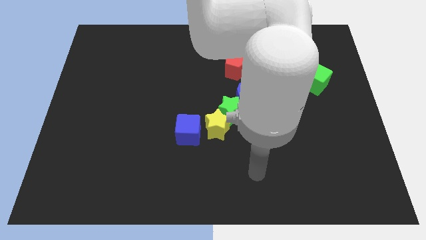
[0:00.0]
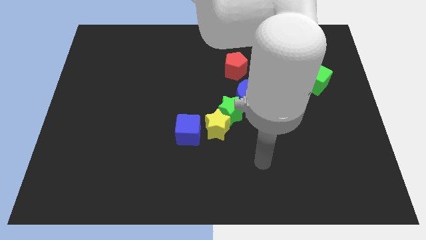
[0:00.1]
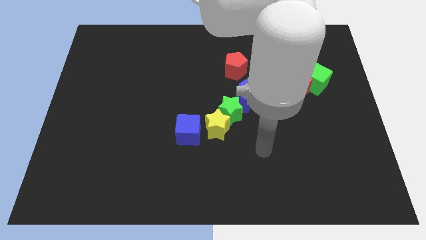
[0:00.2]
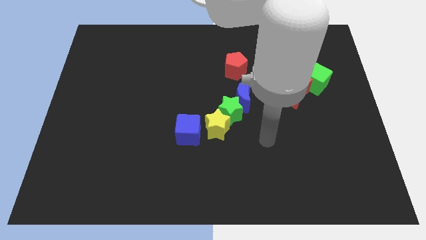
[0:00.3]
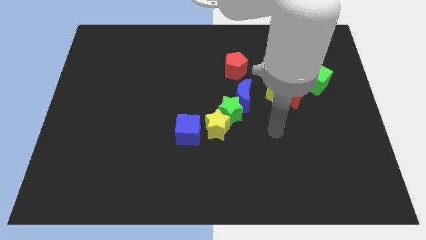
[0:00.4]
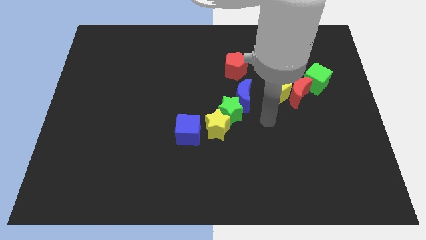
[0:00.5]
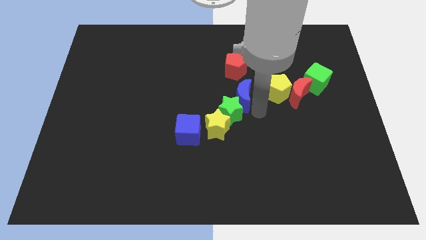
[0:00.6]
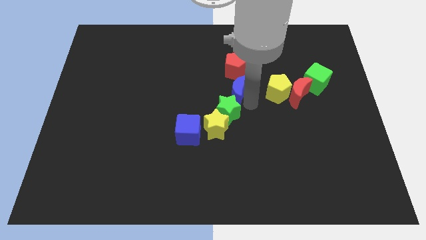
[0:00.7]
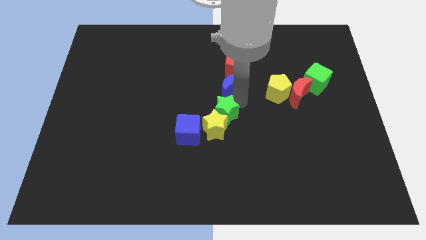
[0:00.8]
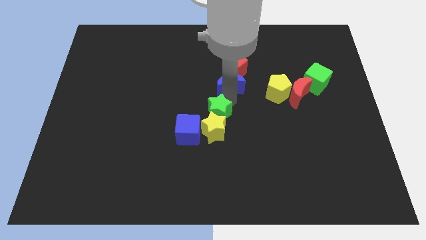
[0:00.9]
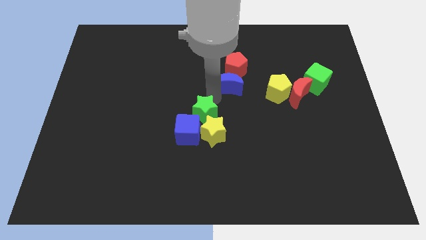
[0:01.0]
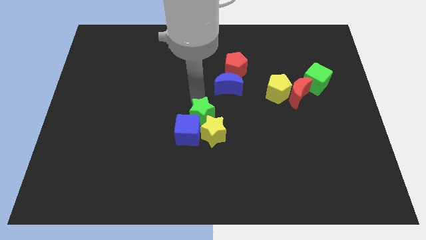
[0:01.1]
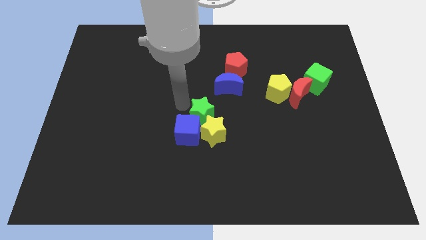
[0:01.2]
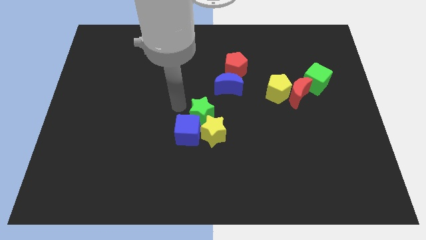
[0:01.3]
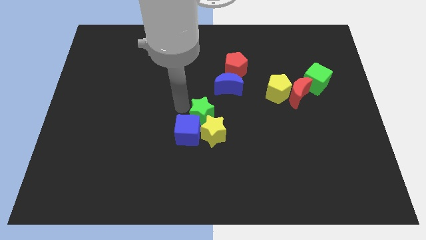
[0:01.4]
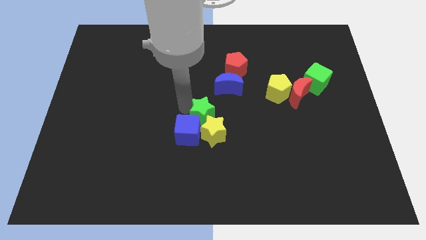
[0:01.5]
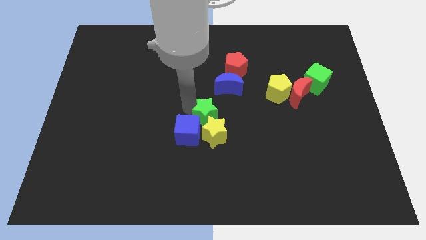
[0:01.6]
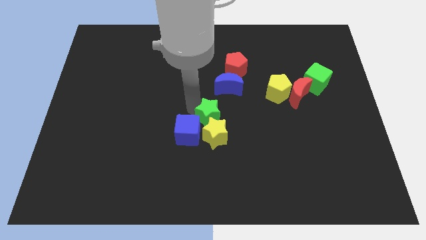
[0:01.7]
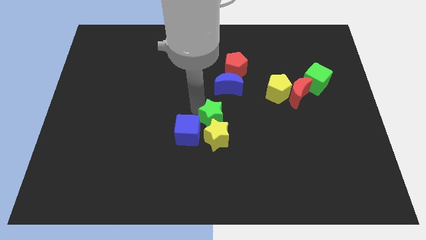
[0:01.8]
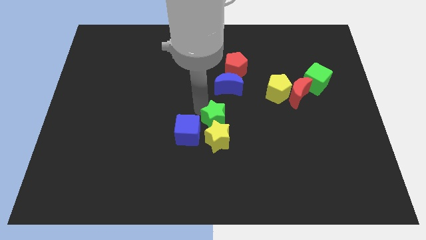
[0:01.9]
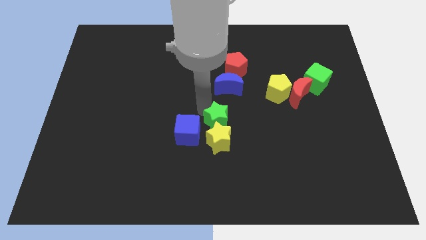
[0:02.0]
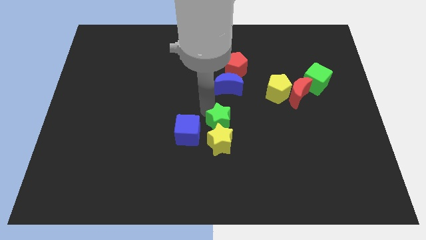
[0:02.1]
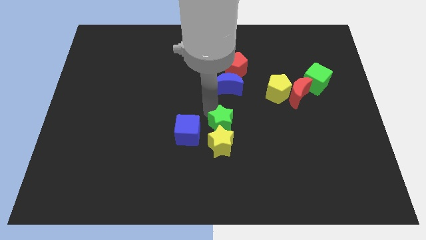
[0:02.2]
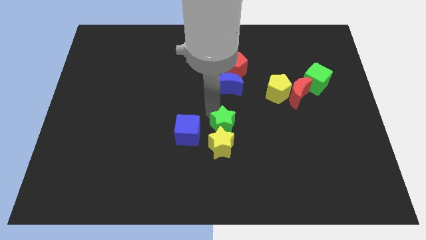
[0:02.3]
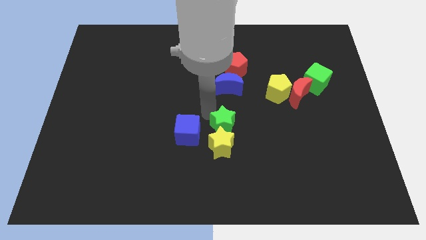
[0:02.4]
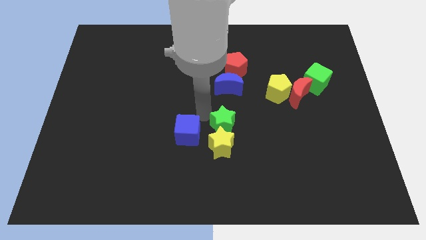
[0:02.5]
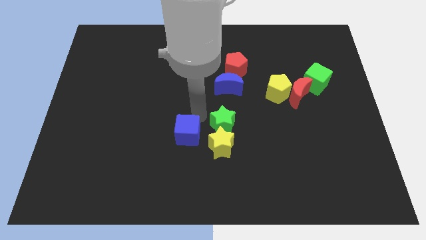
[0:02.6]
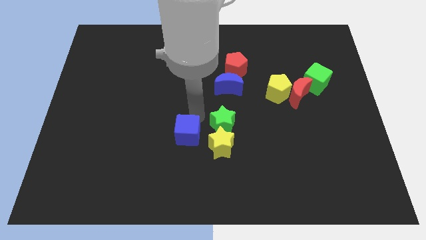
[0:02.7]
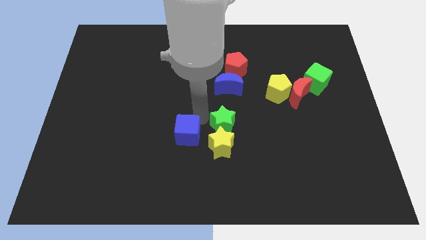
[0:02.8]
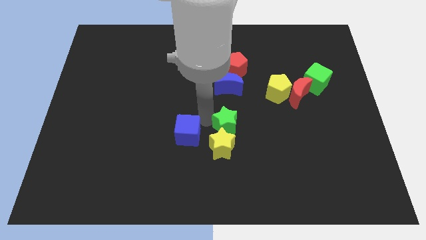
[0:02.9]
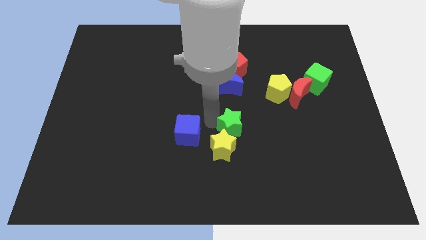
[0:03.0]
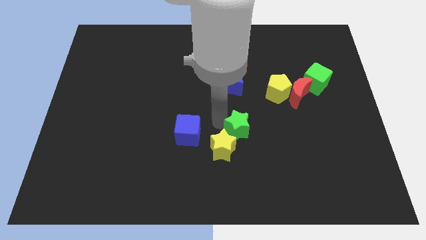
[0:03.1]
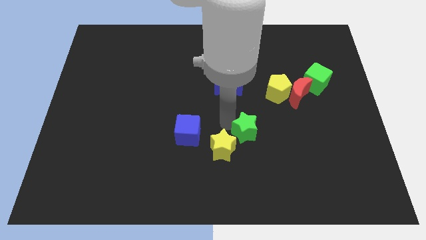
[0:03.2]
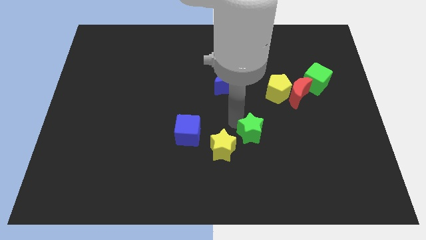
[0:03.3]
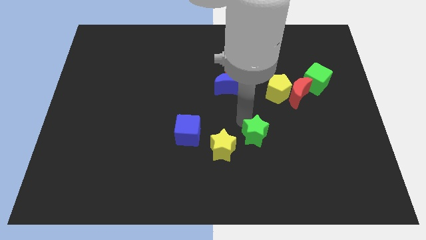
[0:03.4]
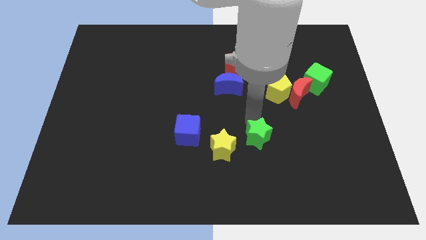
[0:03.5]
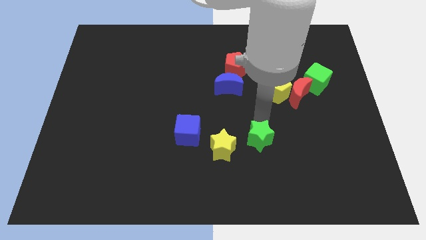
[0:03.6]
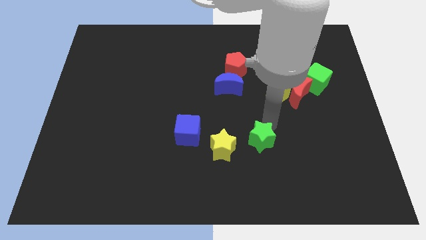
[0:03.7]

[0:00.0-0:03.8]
move the green star away from the yellow star and blue moon

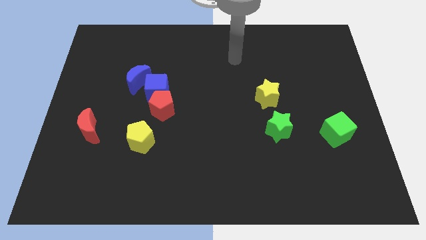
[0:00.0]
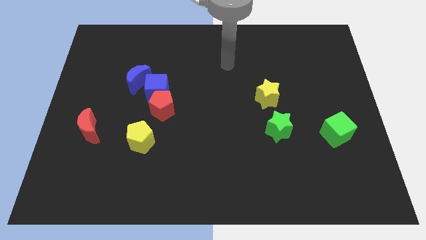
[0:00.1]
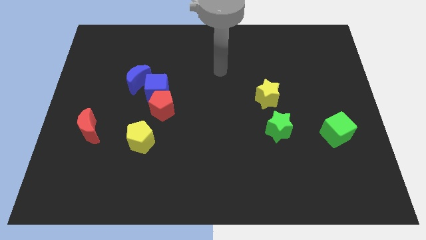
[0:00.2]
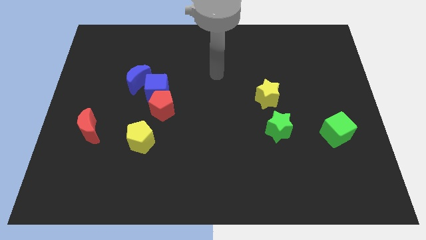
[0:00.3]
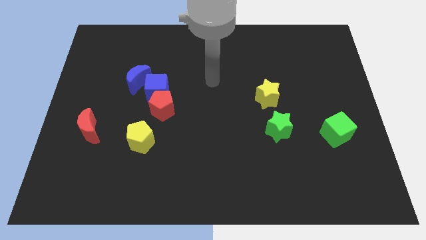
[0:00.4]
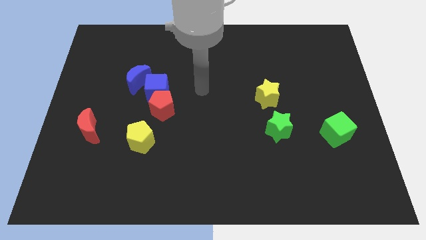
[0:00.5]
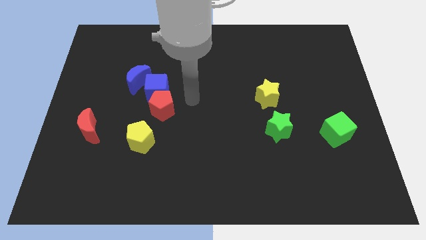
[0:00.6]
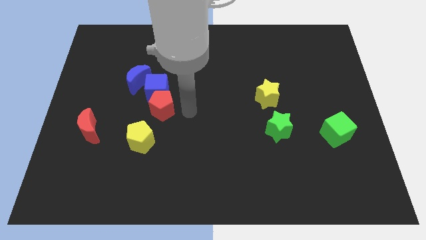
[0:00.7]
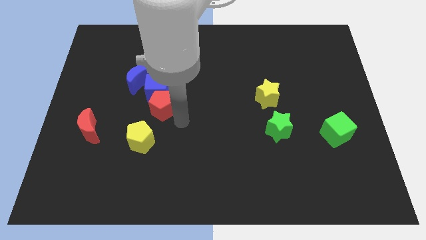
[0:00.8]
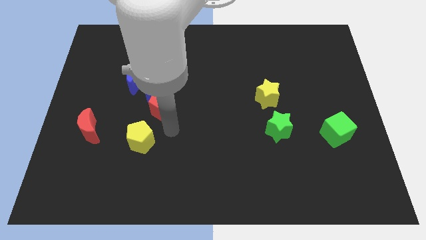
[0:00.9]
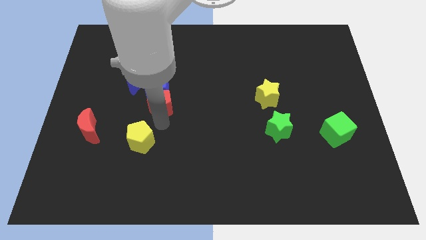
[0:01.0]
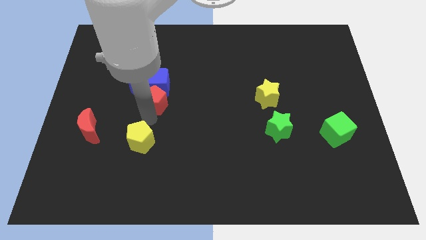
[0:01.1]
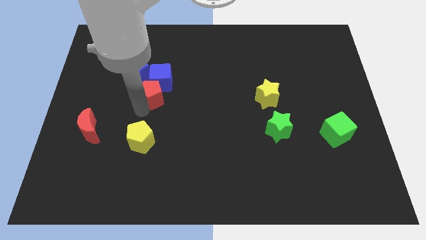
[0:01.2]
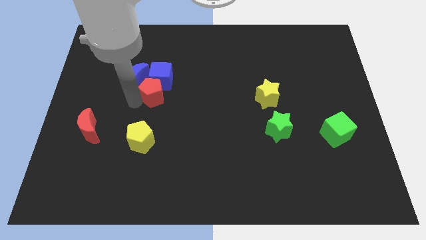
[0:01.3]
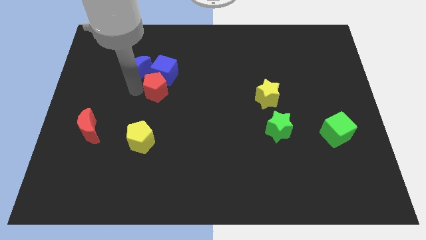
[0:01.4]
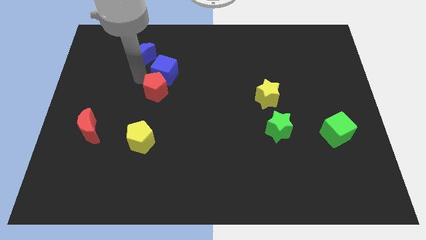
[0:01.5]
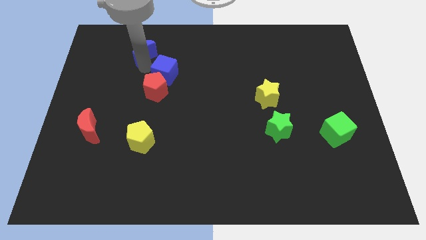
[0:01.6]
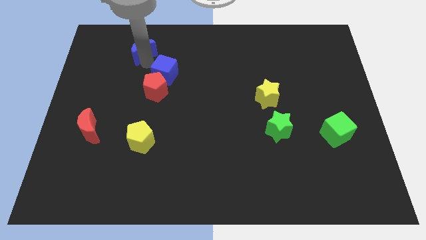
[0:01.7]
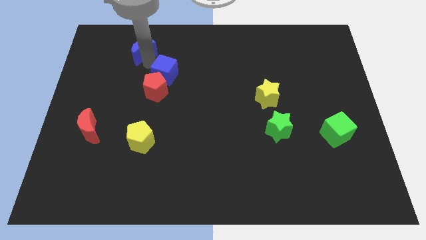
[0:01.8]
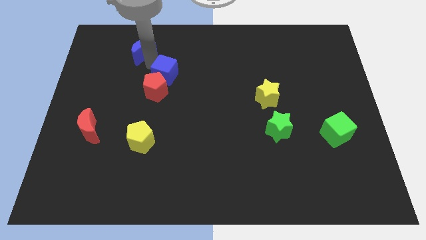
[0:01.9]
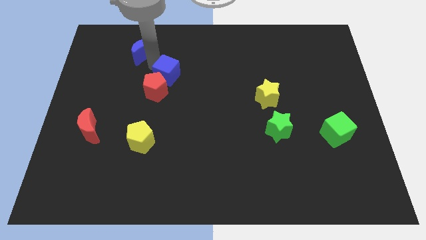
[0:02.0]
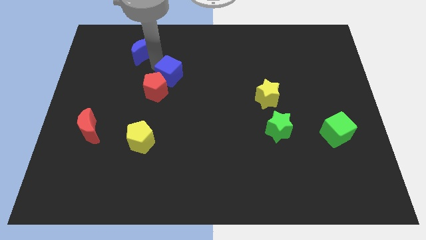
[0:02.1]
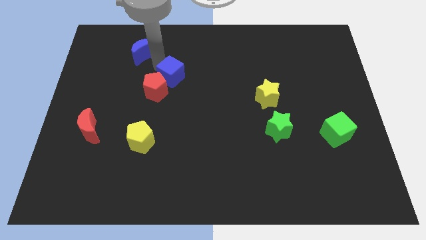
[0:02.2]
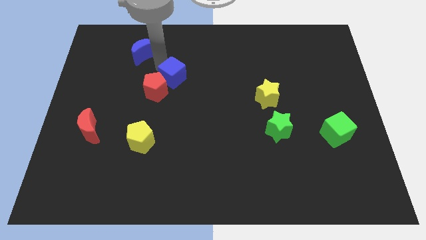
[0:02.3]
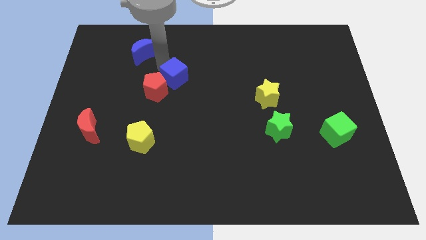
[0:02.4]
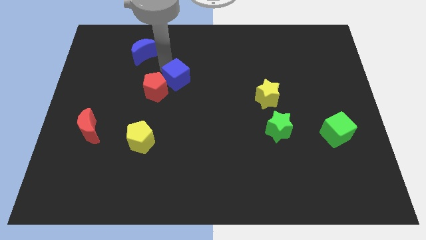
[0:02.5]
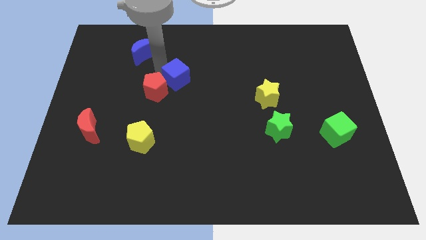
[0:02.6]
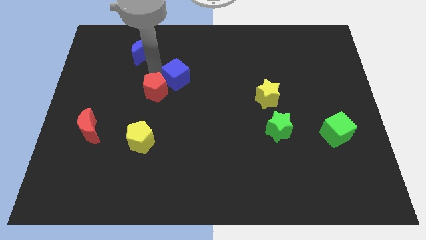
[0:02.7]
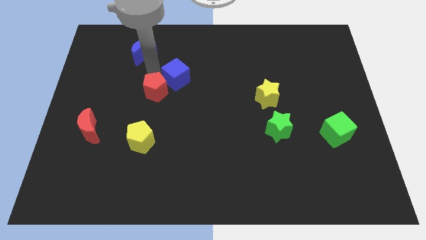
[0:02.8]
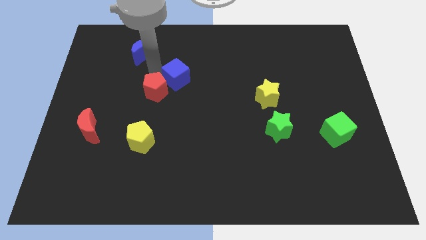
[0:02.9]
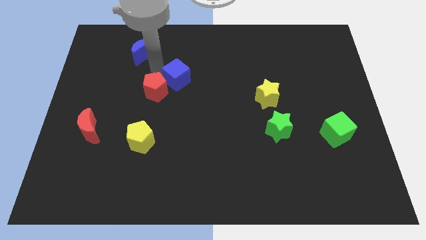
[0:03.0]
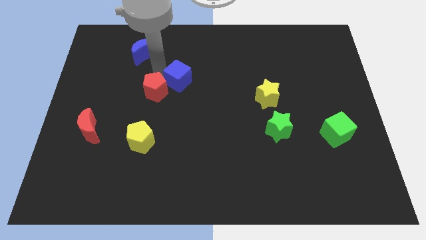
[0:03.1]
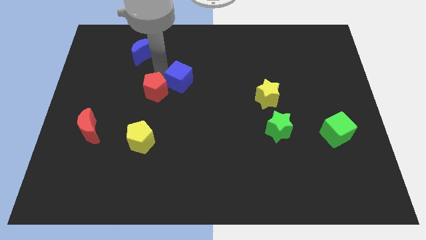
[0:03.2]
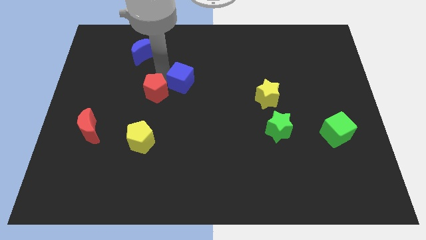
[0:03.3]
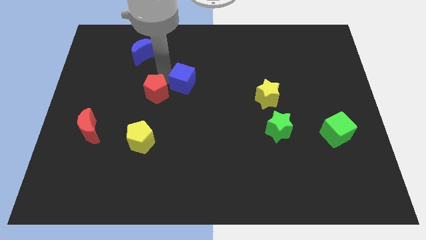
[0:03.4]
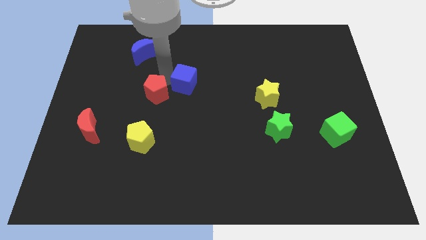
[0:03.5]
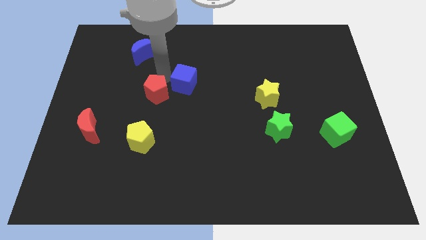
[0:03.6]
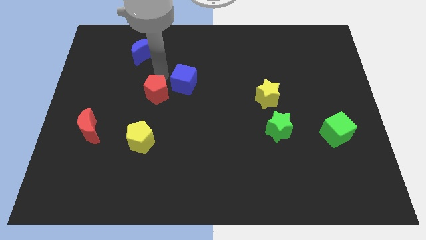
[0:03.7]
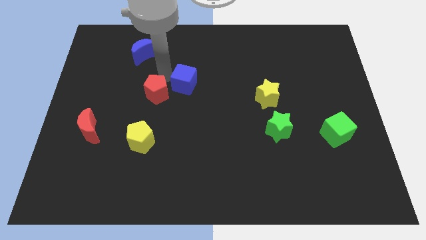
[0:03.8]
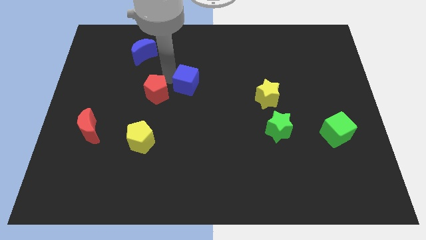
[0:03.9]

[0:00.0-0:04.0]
pull the blue cube apart from the red pentagon and blue moon

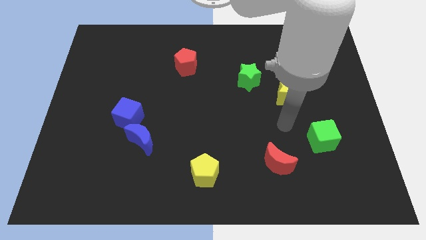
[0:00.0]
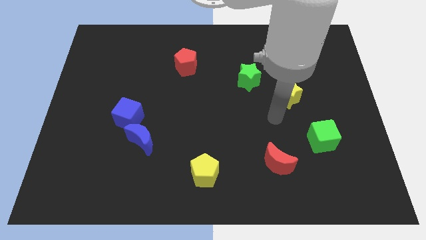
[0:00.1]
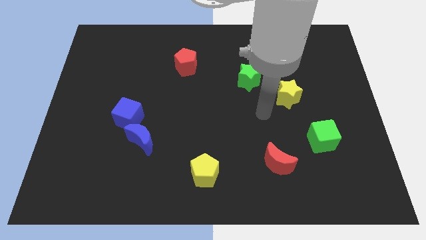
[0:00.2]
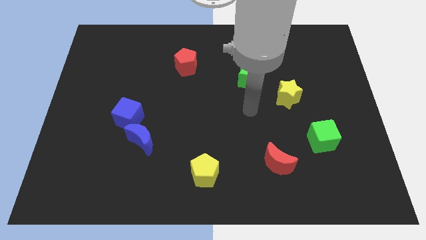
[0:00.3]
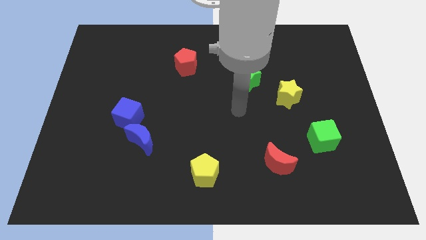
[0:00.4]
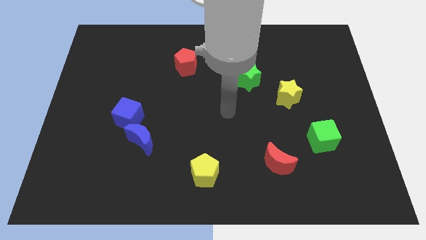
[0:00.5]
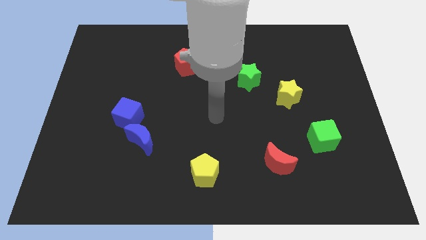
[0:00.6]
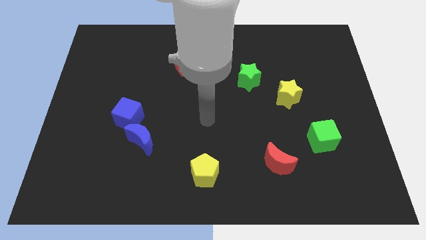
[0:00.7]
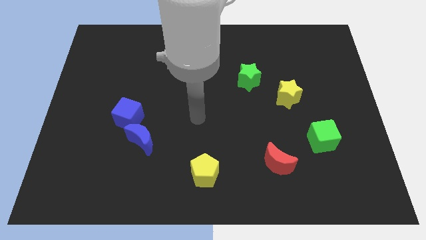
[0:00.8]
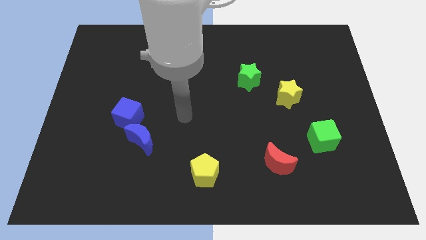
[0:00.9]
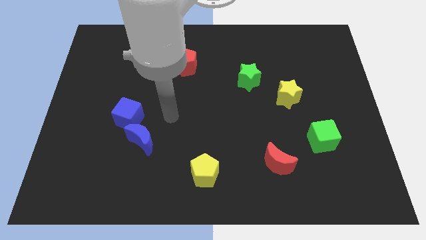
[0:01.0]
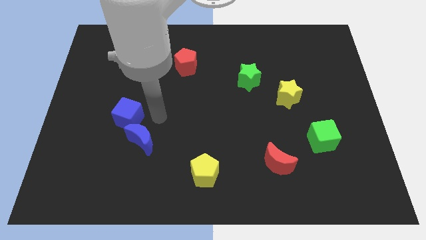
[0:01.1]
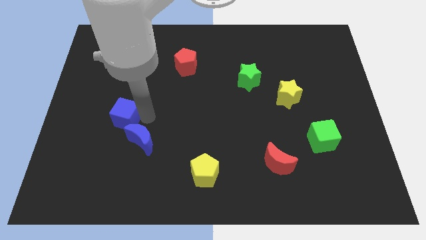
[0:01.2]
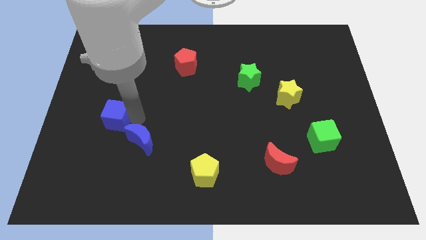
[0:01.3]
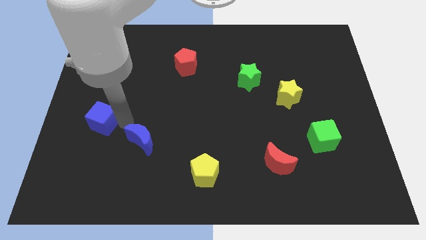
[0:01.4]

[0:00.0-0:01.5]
separate the blue moon from the blue cube
